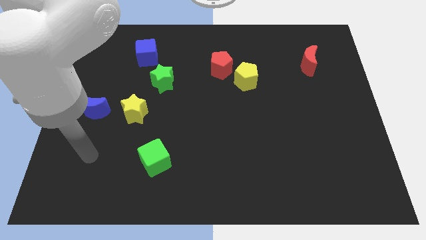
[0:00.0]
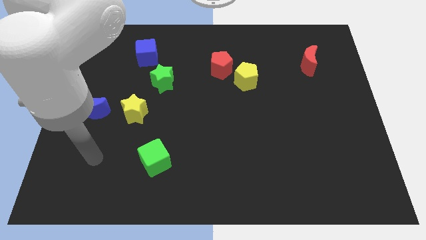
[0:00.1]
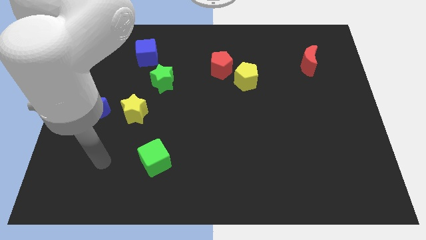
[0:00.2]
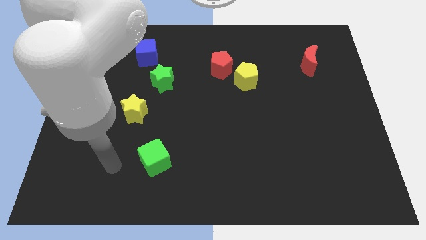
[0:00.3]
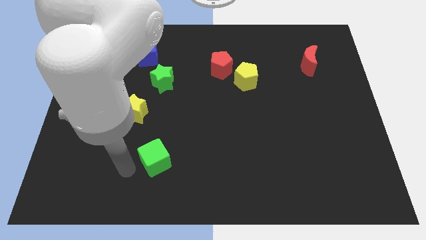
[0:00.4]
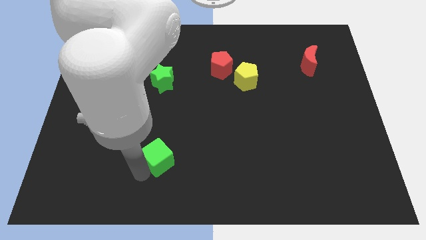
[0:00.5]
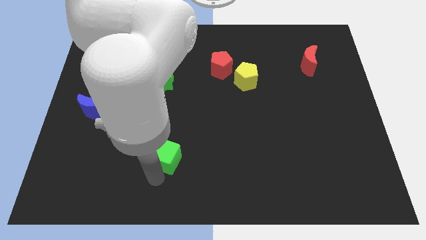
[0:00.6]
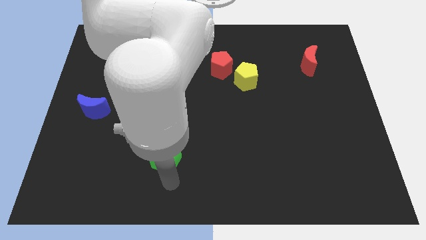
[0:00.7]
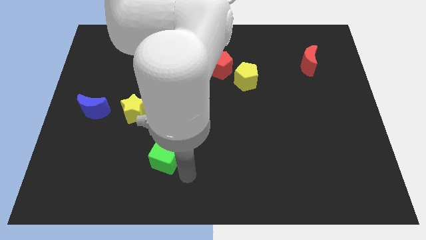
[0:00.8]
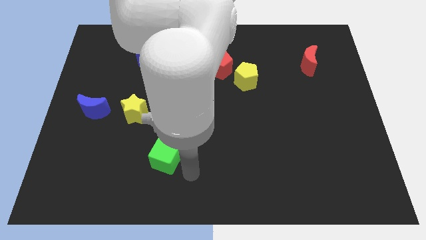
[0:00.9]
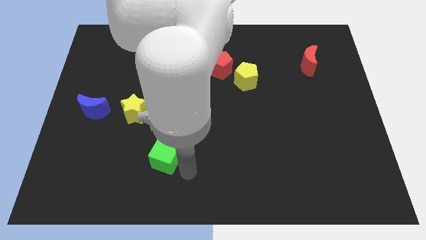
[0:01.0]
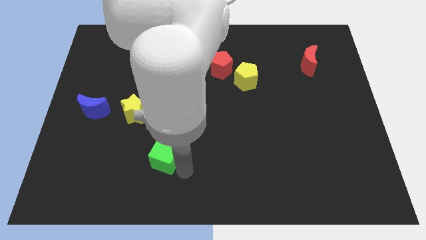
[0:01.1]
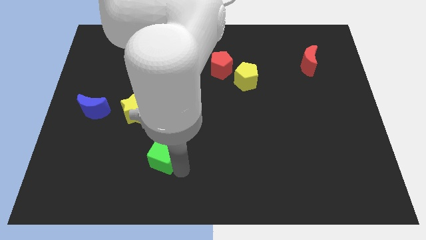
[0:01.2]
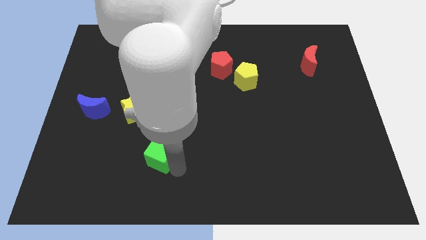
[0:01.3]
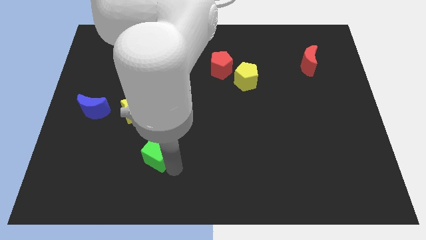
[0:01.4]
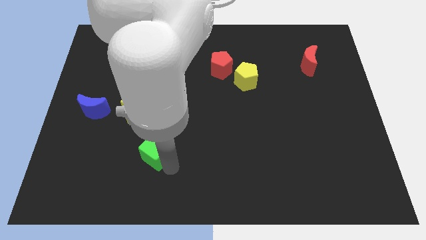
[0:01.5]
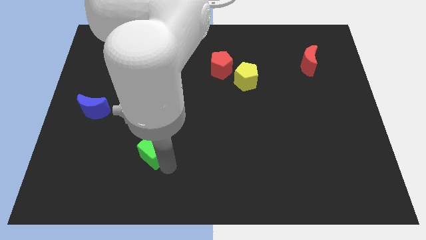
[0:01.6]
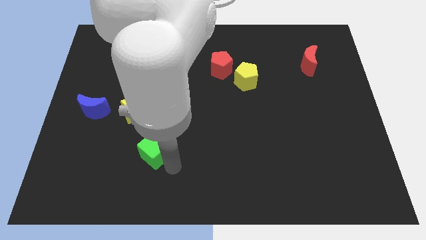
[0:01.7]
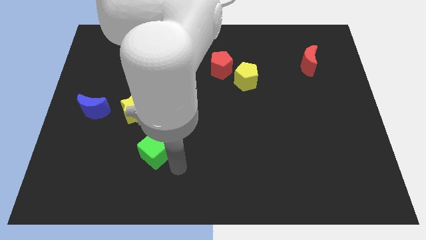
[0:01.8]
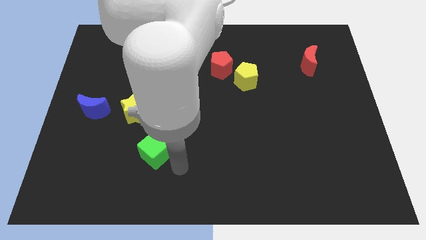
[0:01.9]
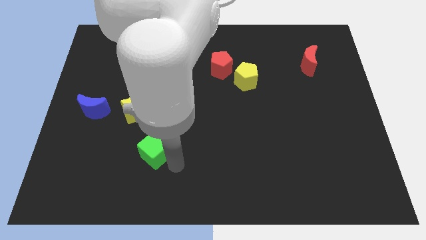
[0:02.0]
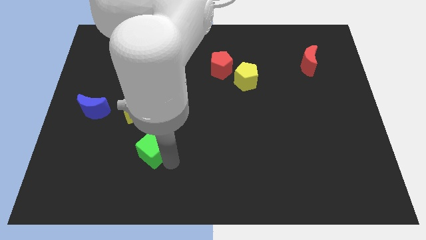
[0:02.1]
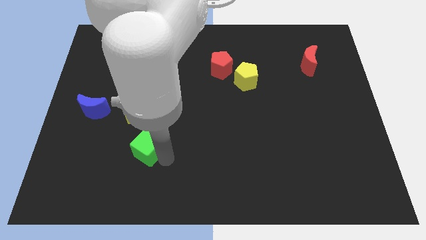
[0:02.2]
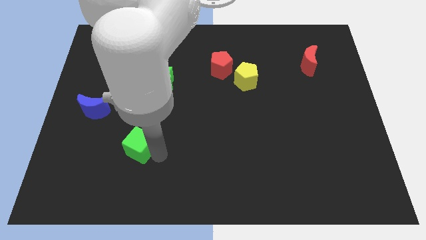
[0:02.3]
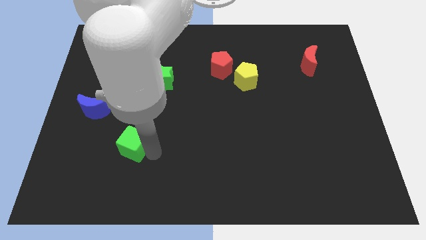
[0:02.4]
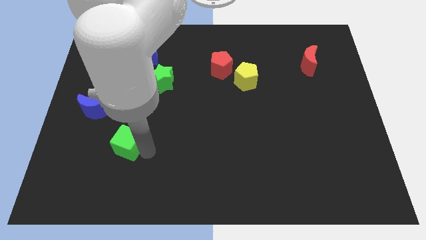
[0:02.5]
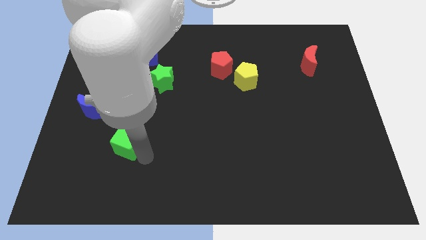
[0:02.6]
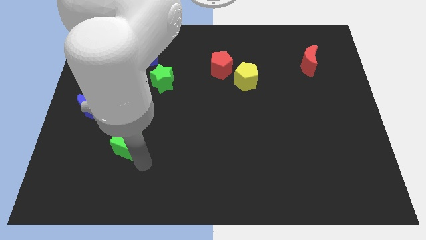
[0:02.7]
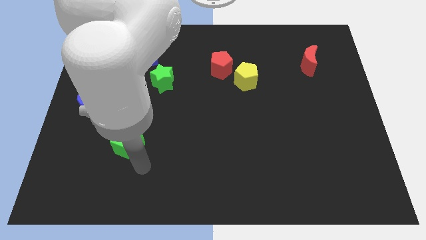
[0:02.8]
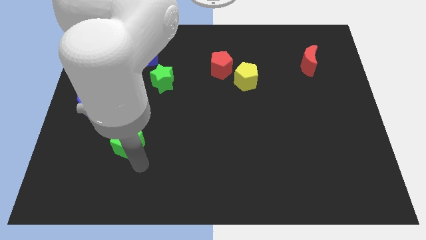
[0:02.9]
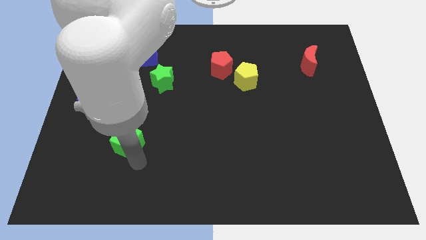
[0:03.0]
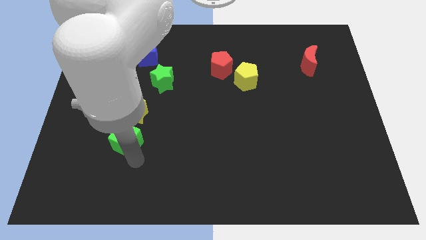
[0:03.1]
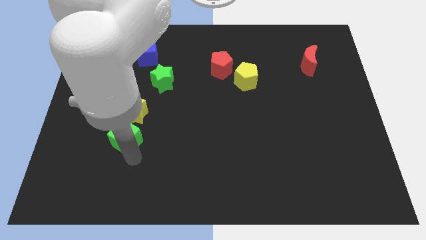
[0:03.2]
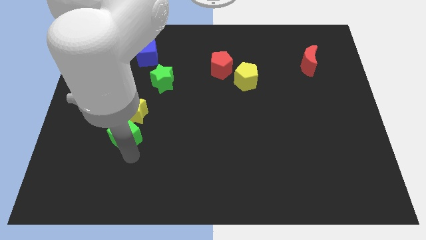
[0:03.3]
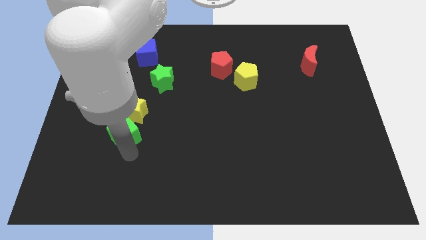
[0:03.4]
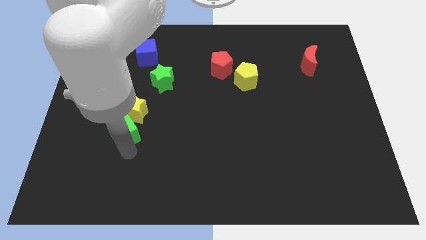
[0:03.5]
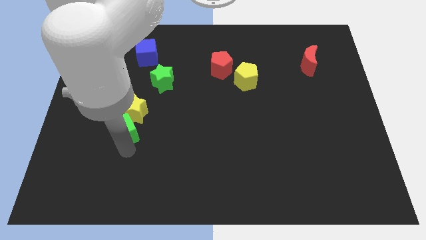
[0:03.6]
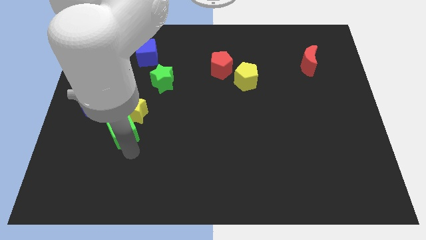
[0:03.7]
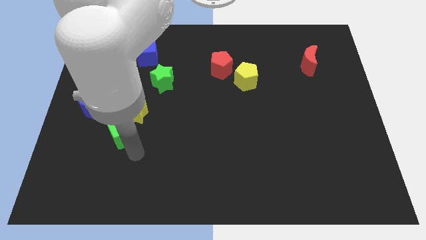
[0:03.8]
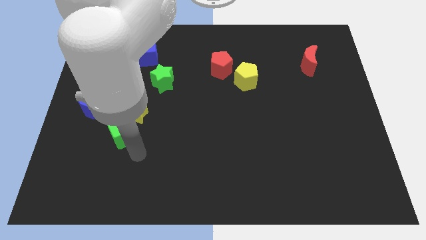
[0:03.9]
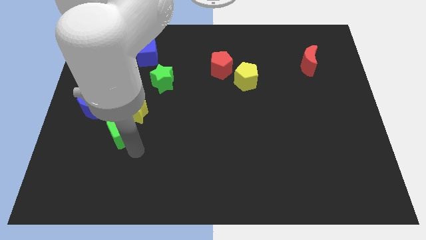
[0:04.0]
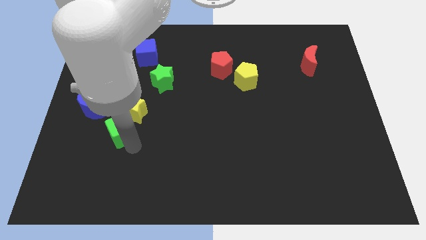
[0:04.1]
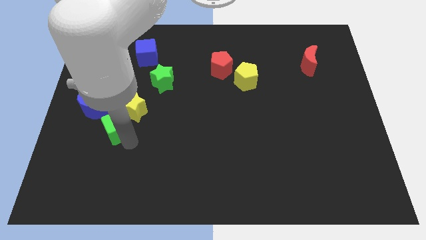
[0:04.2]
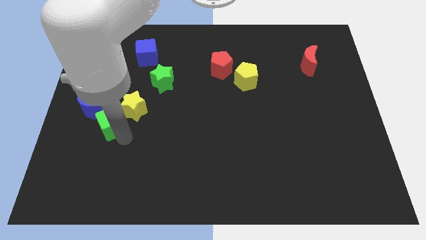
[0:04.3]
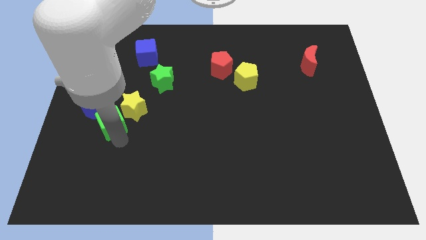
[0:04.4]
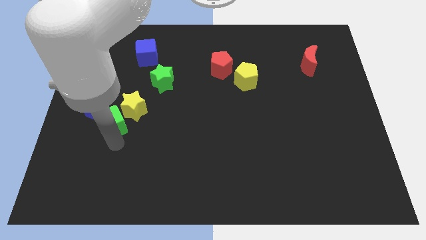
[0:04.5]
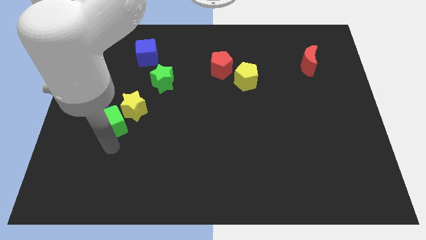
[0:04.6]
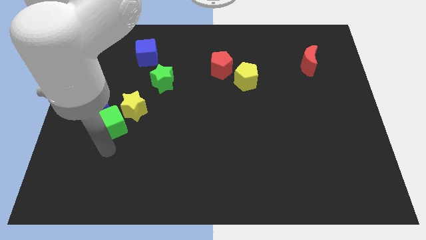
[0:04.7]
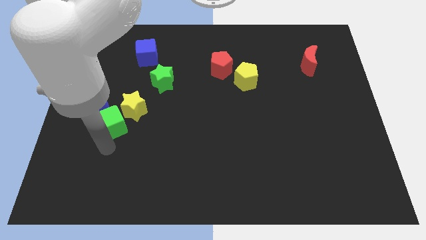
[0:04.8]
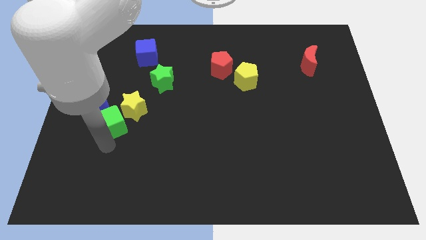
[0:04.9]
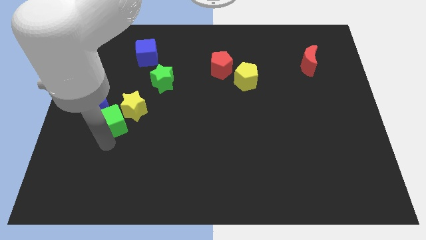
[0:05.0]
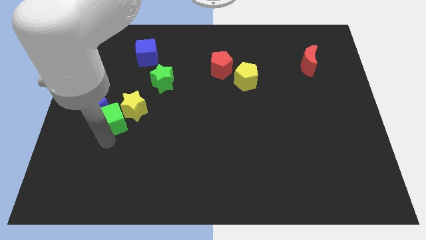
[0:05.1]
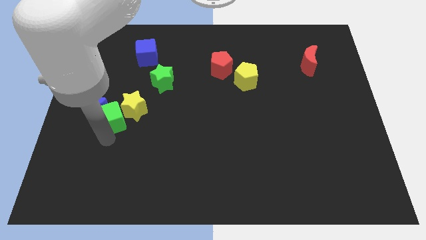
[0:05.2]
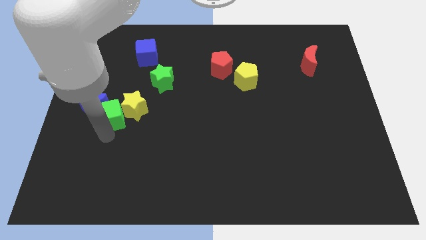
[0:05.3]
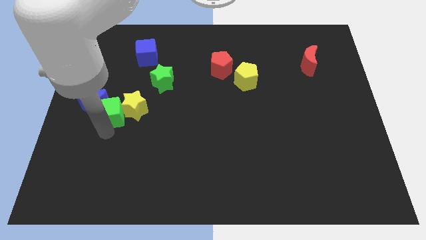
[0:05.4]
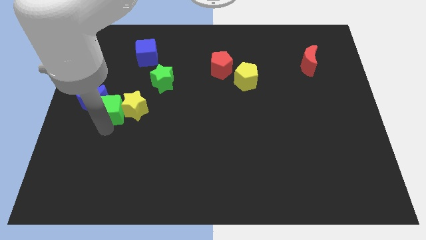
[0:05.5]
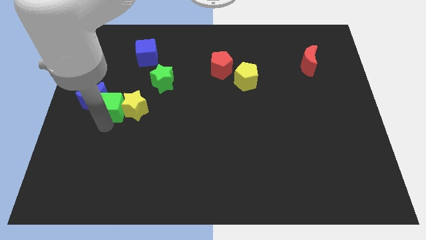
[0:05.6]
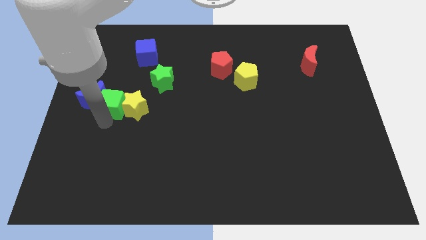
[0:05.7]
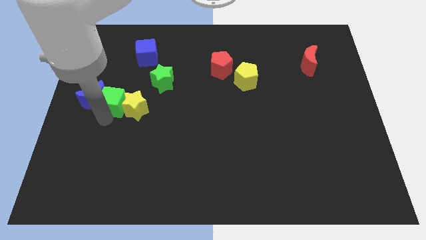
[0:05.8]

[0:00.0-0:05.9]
move the green cube to the top right of the blue moon

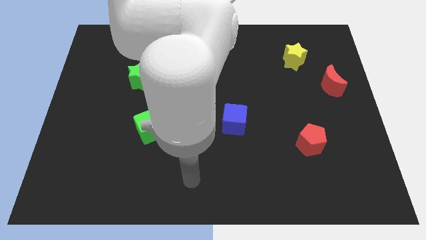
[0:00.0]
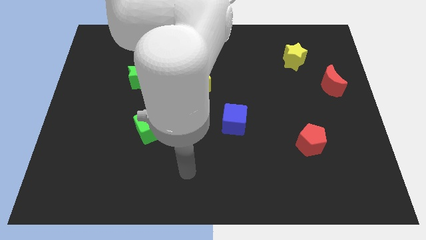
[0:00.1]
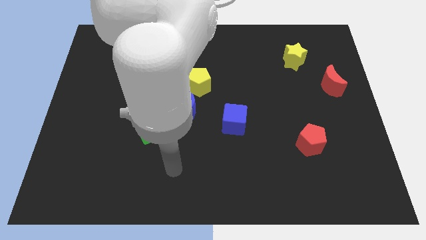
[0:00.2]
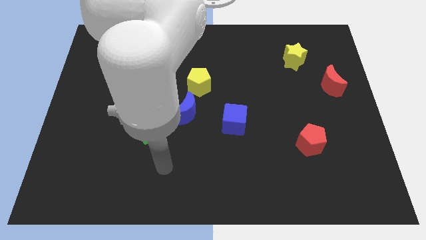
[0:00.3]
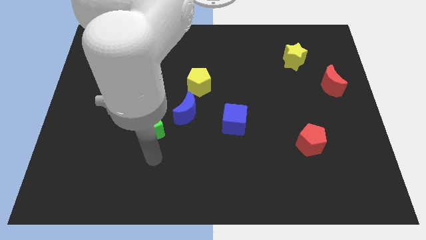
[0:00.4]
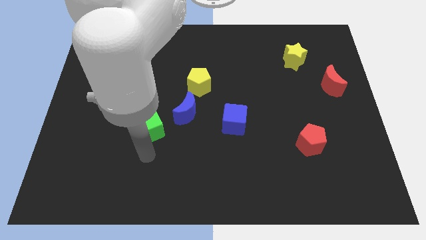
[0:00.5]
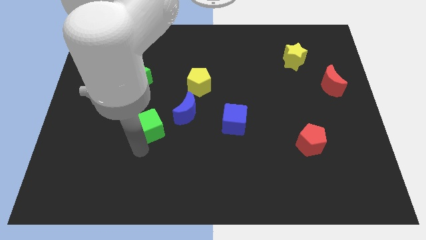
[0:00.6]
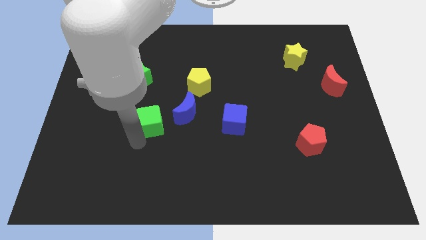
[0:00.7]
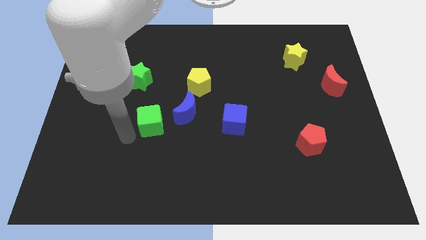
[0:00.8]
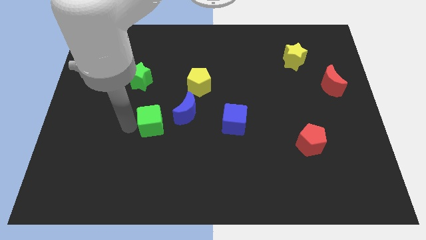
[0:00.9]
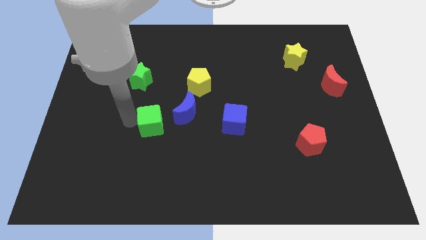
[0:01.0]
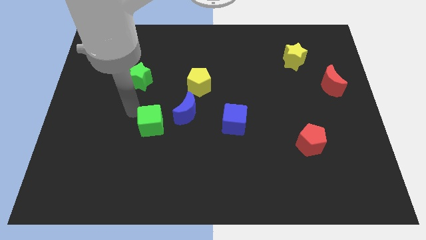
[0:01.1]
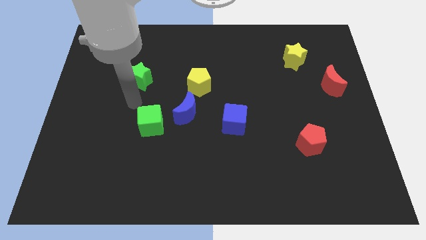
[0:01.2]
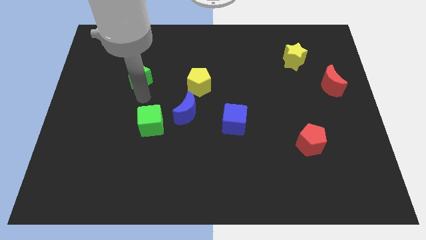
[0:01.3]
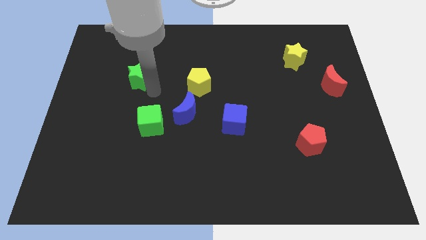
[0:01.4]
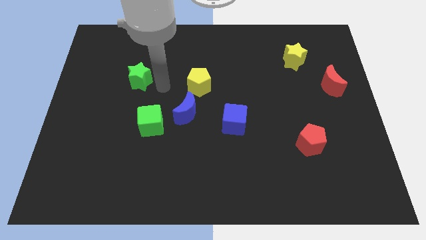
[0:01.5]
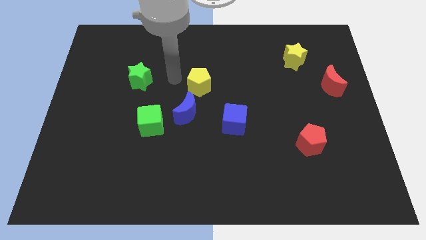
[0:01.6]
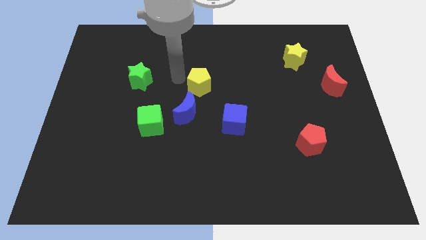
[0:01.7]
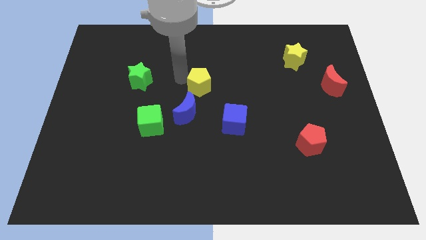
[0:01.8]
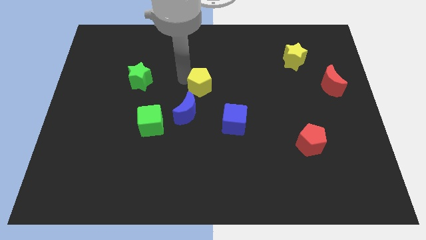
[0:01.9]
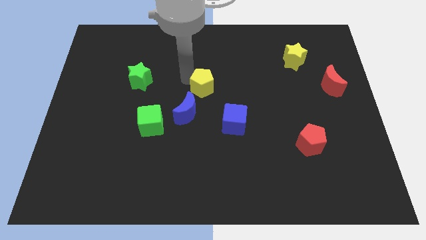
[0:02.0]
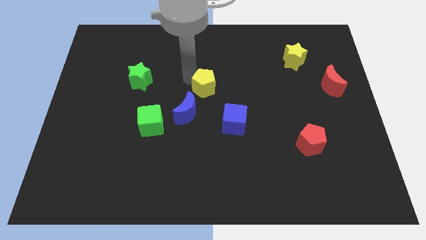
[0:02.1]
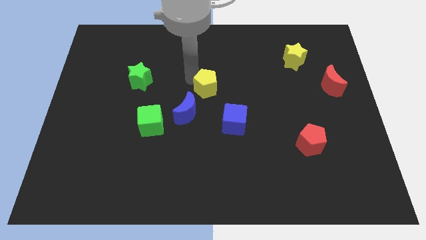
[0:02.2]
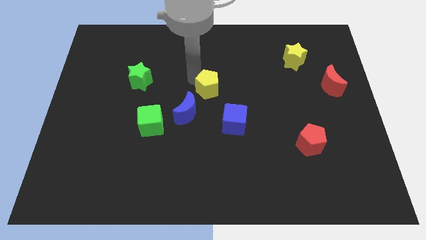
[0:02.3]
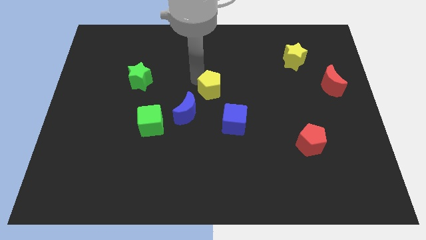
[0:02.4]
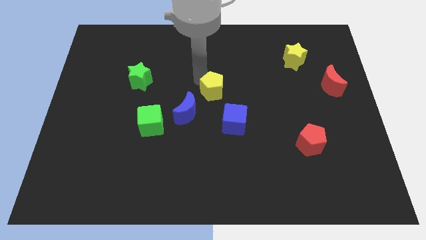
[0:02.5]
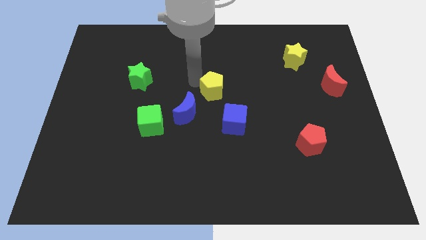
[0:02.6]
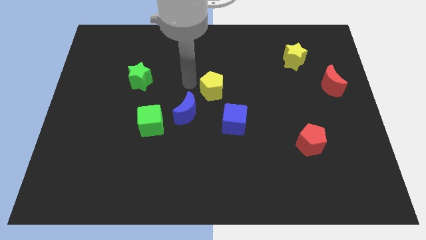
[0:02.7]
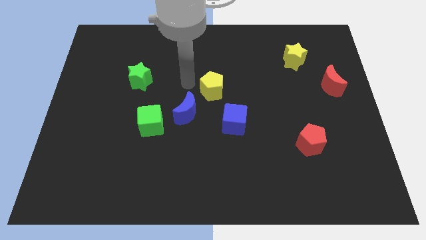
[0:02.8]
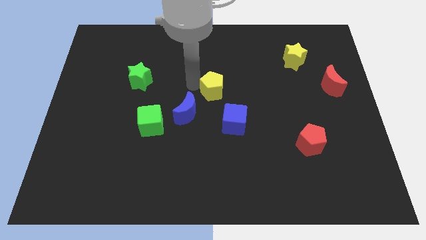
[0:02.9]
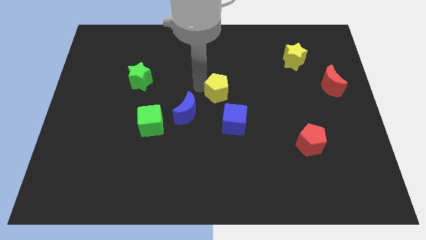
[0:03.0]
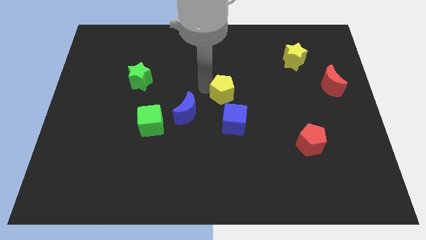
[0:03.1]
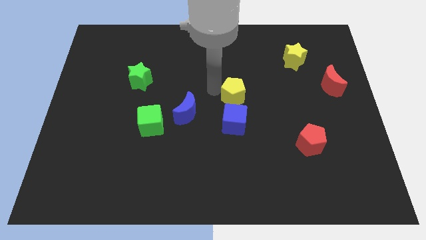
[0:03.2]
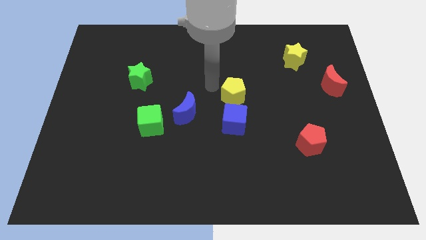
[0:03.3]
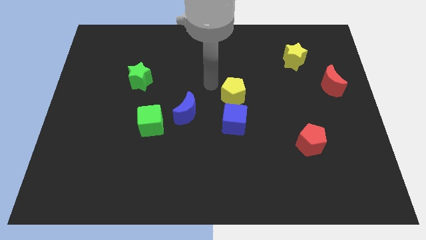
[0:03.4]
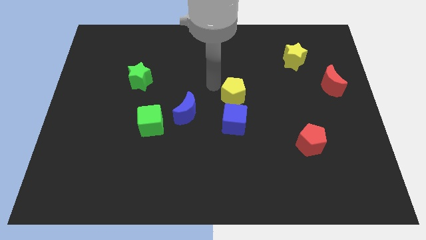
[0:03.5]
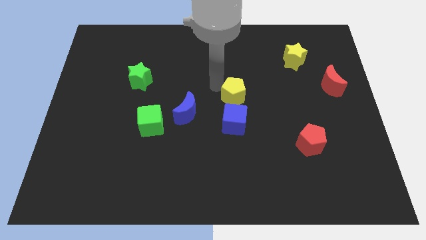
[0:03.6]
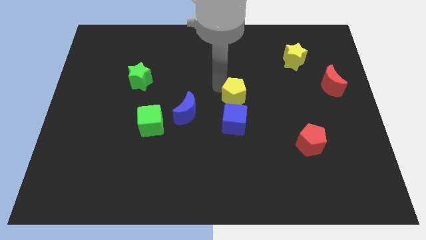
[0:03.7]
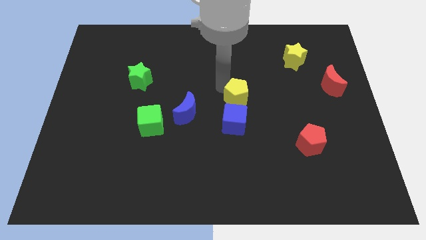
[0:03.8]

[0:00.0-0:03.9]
slide the yellow pentagon diagonally up and to the right of the blue cube
